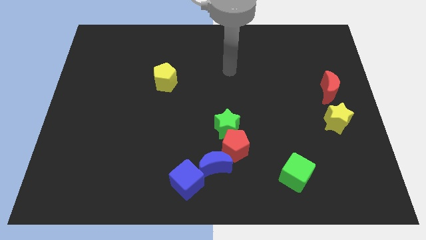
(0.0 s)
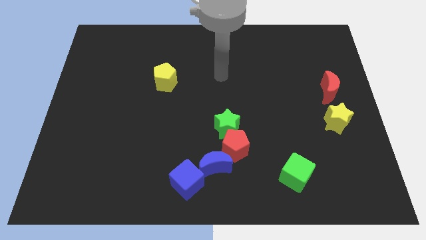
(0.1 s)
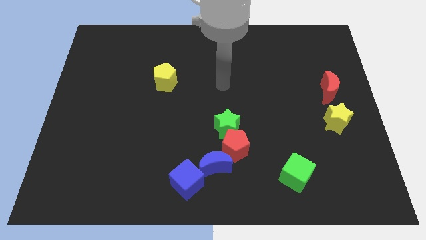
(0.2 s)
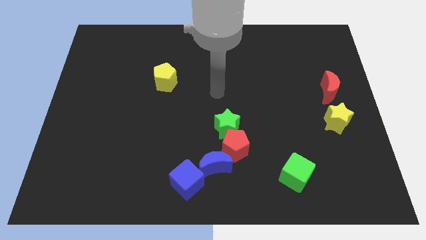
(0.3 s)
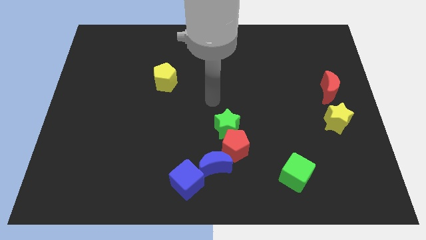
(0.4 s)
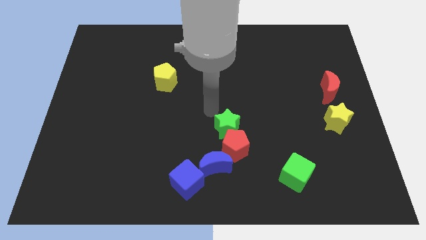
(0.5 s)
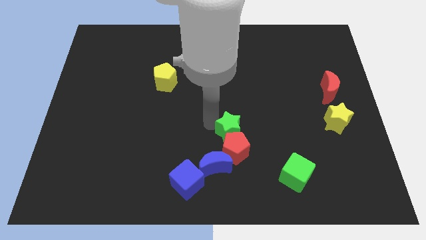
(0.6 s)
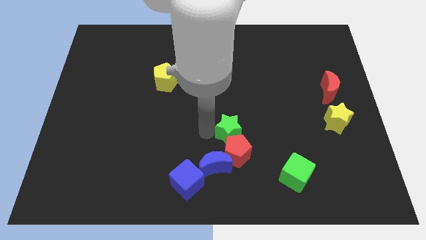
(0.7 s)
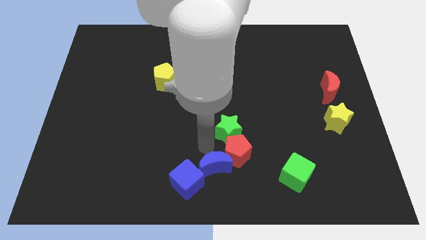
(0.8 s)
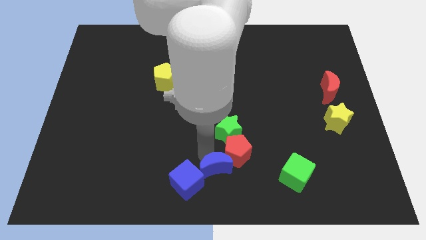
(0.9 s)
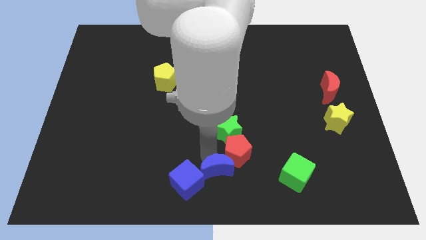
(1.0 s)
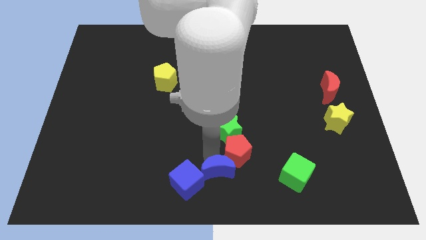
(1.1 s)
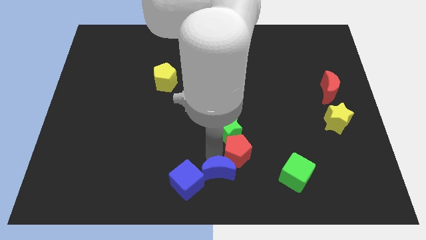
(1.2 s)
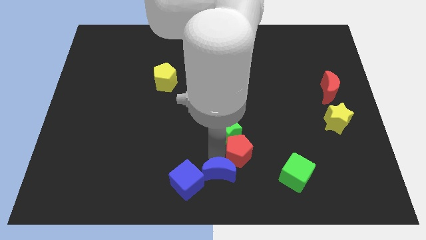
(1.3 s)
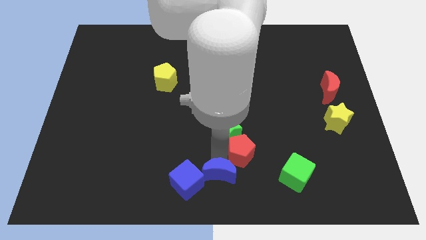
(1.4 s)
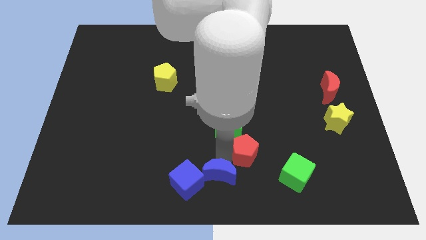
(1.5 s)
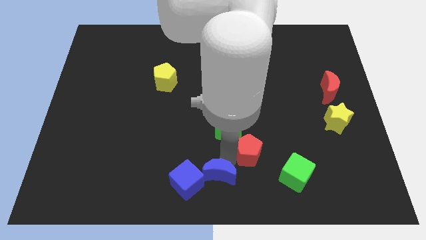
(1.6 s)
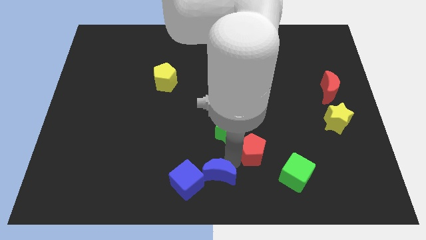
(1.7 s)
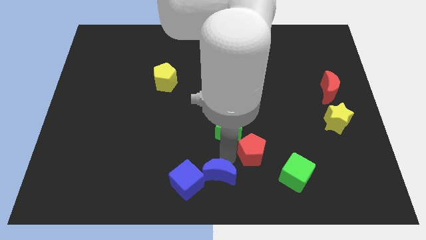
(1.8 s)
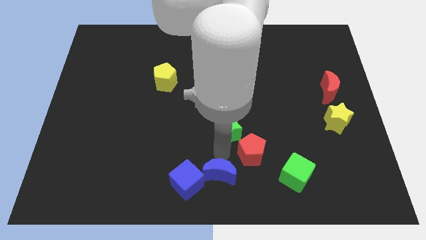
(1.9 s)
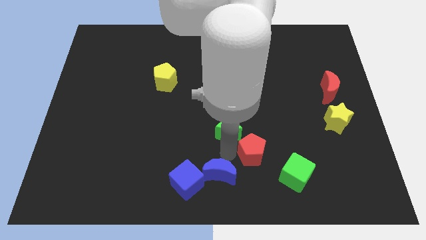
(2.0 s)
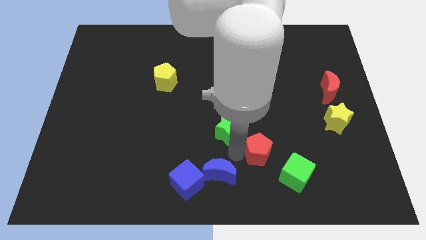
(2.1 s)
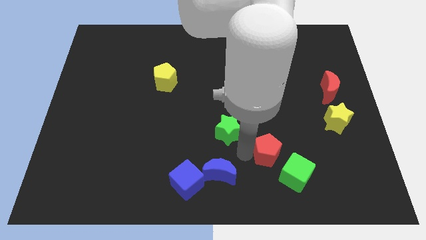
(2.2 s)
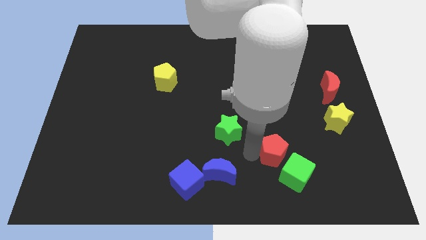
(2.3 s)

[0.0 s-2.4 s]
move the red pentagon away from the green star and blue moon

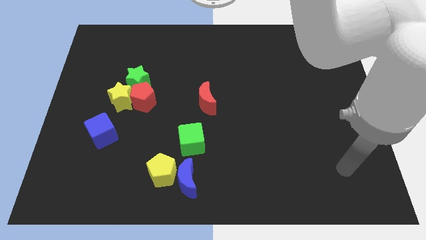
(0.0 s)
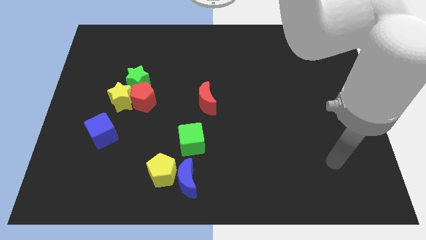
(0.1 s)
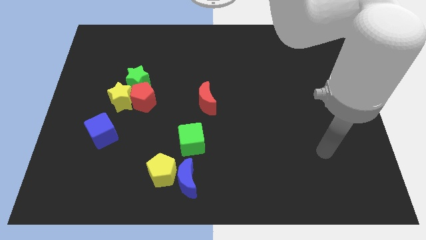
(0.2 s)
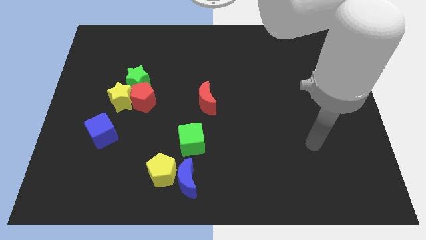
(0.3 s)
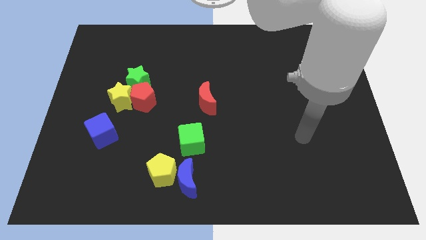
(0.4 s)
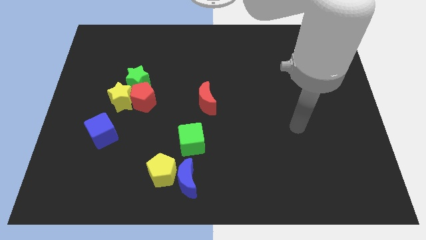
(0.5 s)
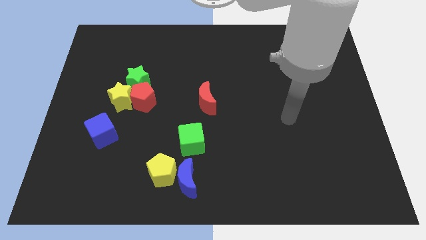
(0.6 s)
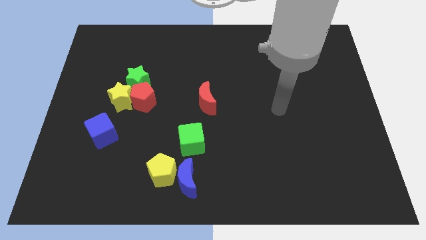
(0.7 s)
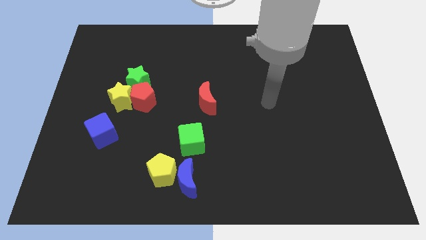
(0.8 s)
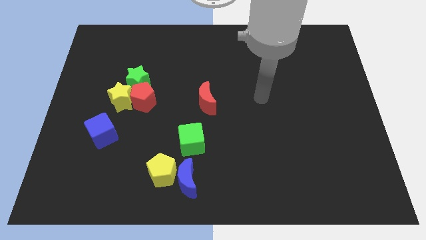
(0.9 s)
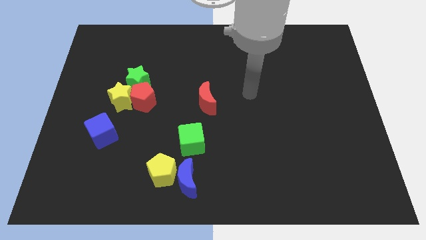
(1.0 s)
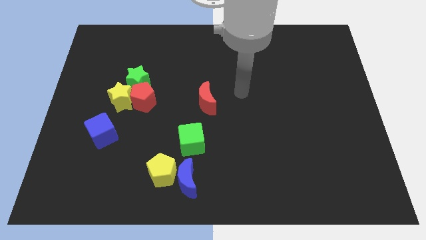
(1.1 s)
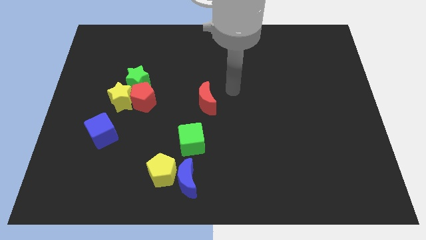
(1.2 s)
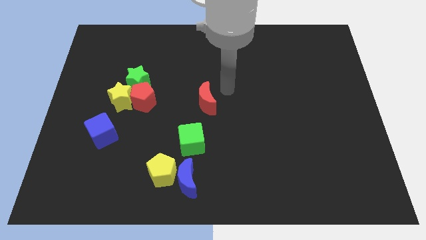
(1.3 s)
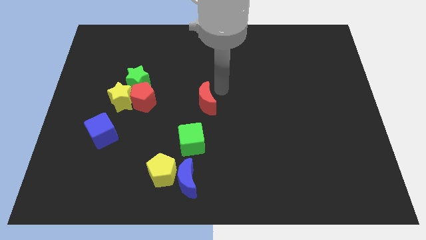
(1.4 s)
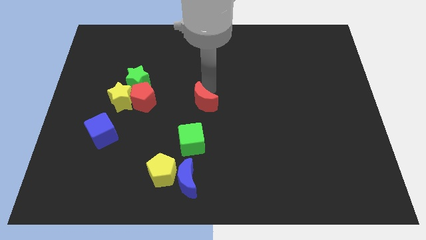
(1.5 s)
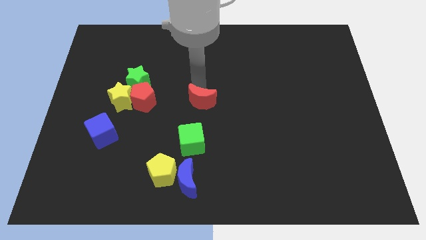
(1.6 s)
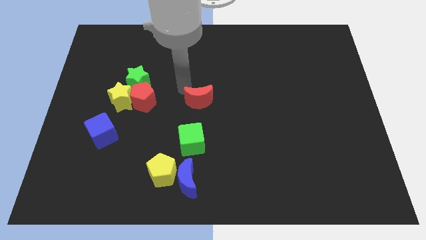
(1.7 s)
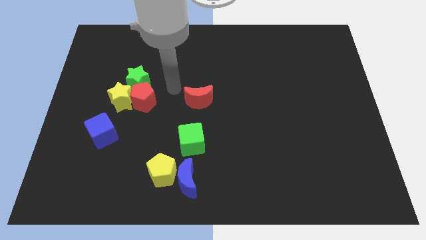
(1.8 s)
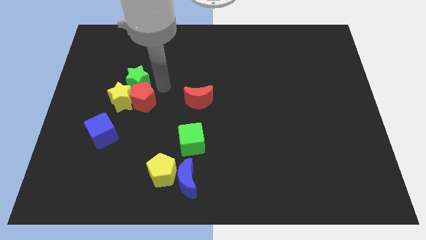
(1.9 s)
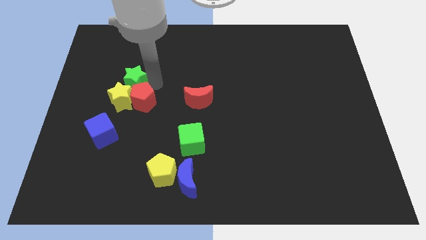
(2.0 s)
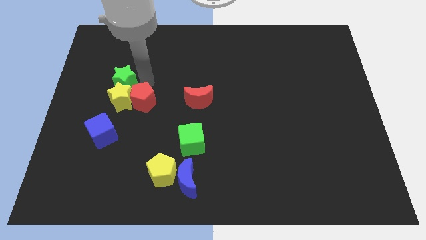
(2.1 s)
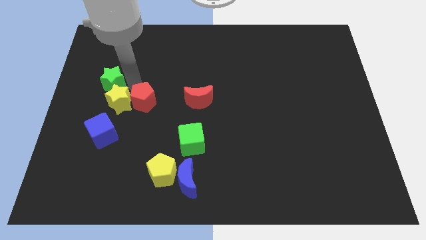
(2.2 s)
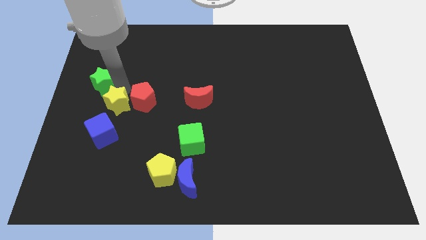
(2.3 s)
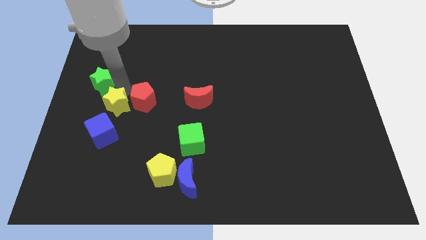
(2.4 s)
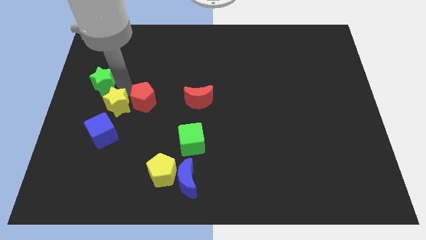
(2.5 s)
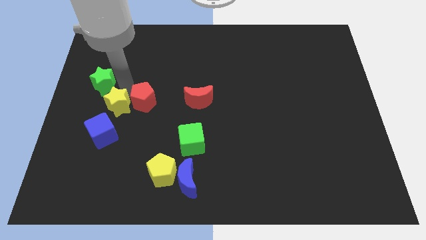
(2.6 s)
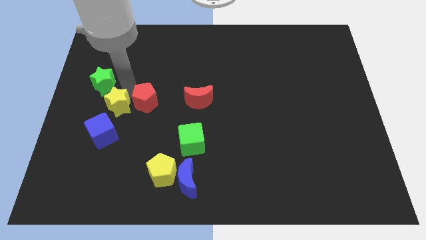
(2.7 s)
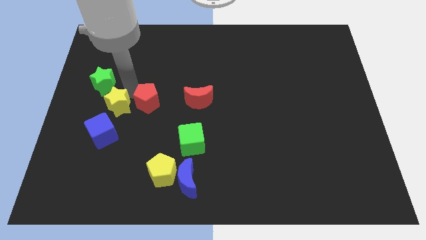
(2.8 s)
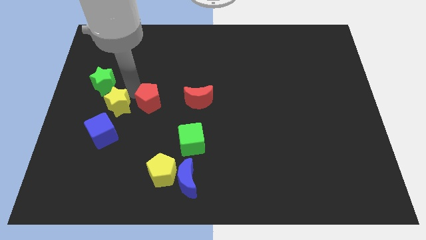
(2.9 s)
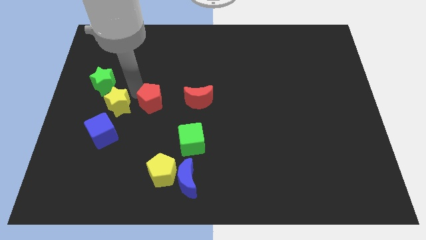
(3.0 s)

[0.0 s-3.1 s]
separate the red pentagon from the yellow star and green star

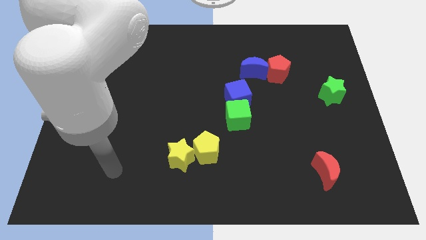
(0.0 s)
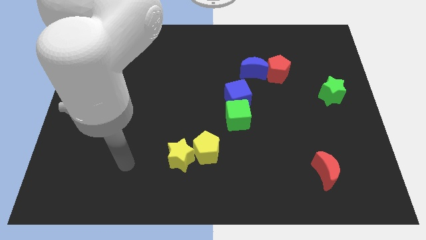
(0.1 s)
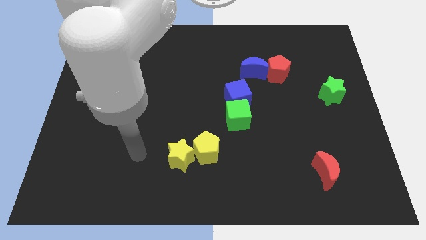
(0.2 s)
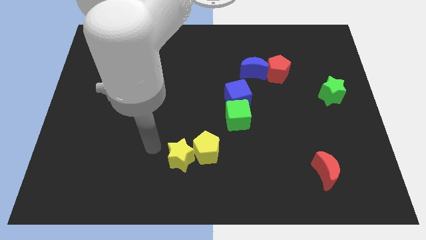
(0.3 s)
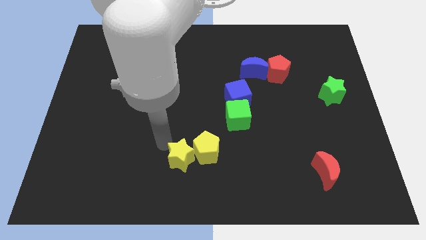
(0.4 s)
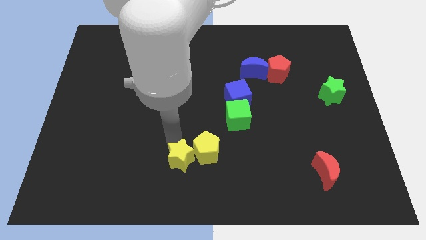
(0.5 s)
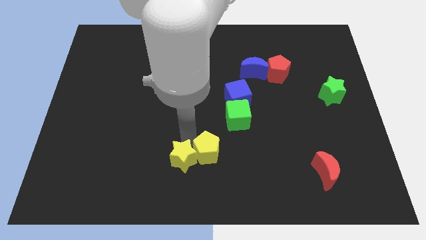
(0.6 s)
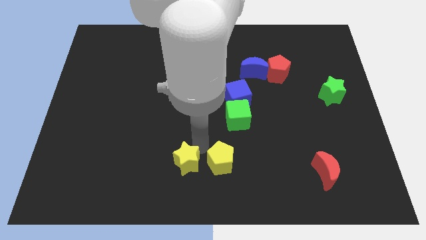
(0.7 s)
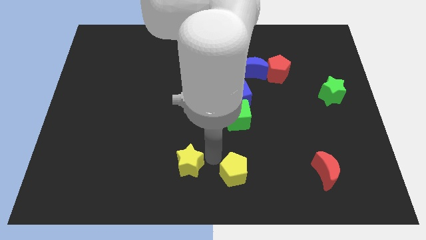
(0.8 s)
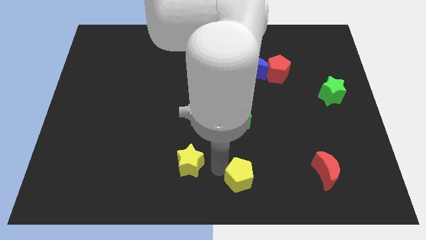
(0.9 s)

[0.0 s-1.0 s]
separate the yellow star from the yellow pentagon

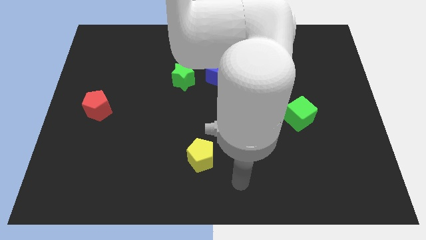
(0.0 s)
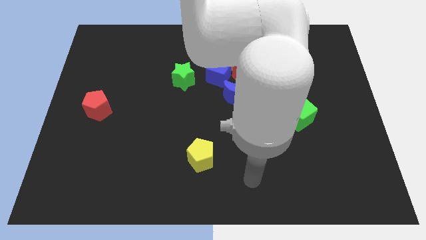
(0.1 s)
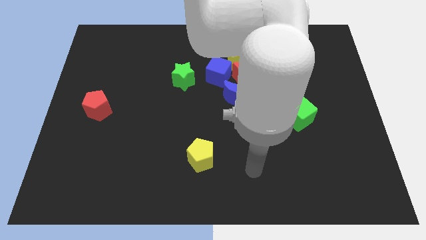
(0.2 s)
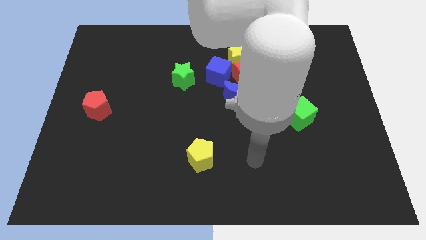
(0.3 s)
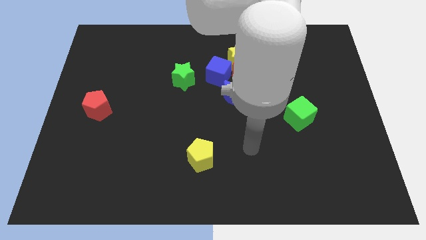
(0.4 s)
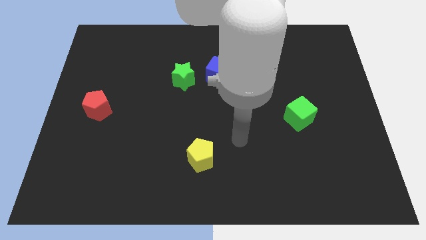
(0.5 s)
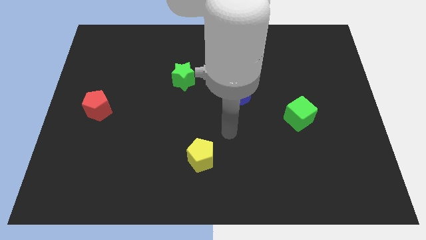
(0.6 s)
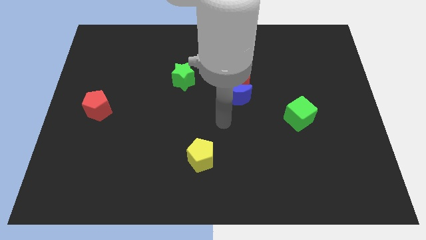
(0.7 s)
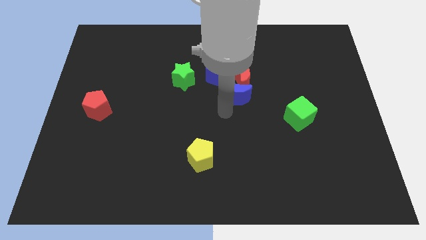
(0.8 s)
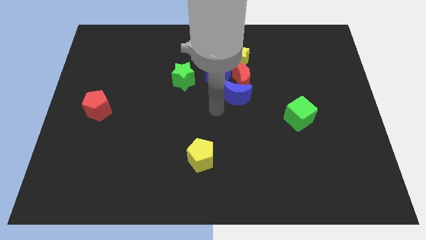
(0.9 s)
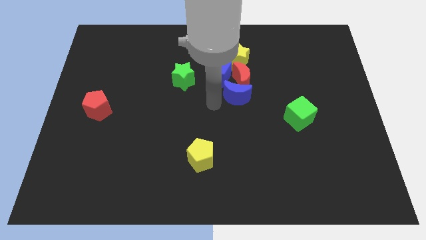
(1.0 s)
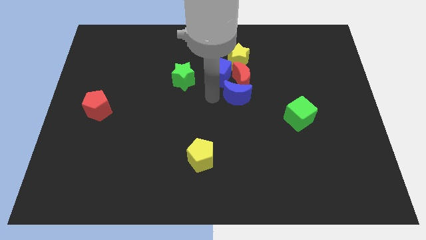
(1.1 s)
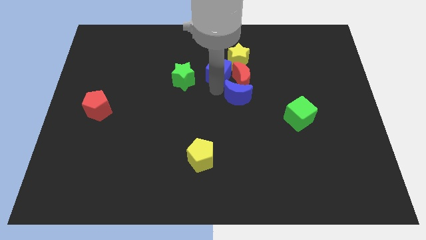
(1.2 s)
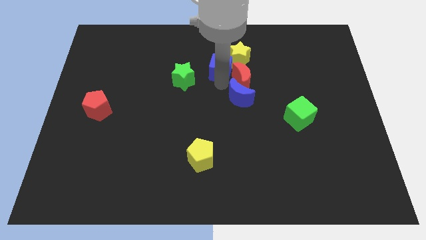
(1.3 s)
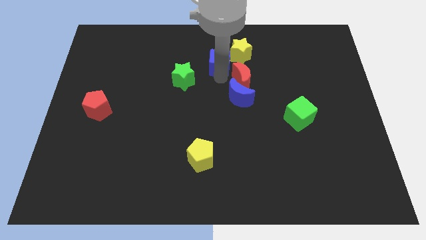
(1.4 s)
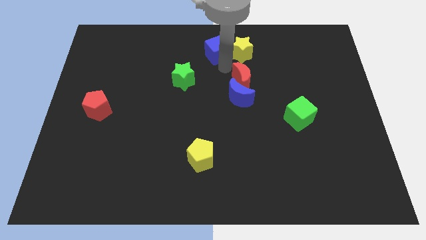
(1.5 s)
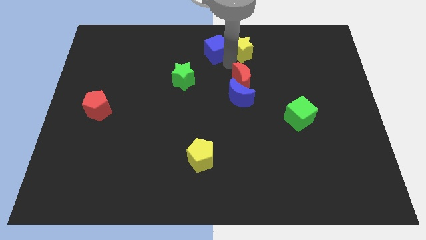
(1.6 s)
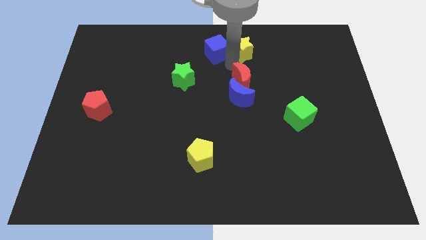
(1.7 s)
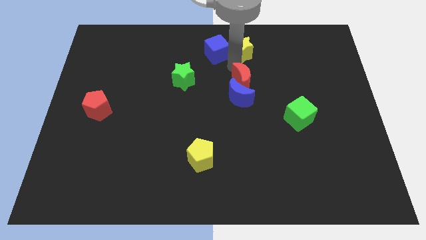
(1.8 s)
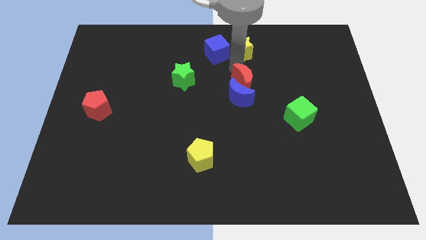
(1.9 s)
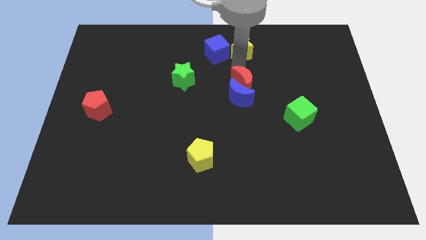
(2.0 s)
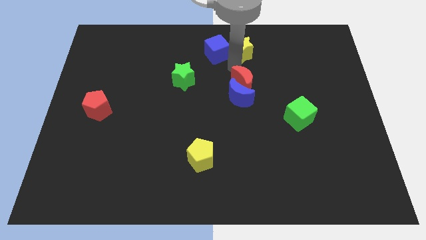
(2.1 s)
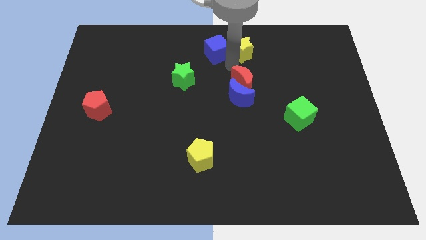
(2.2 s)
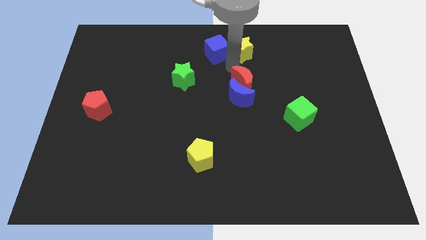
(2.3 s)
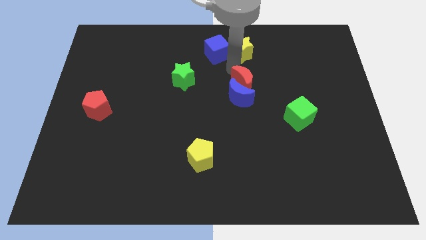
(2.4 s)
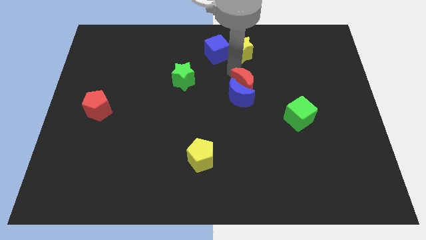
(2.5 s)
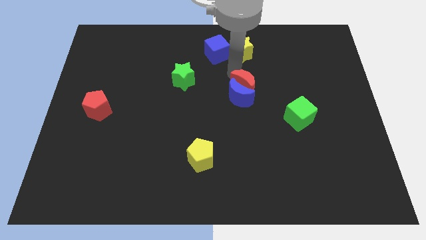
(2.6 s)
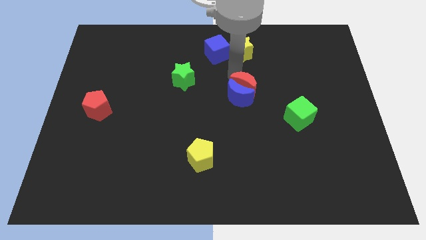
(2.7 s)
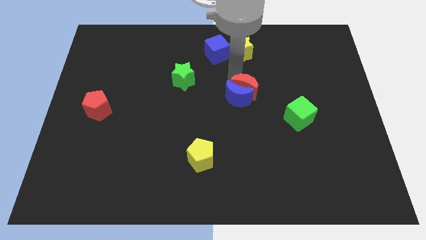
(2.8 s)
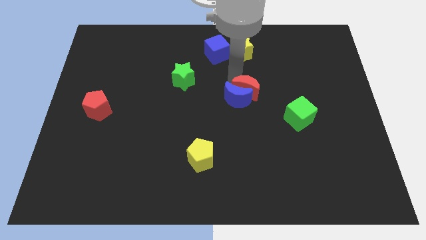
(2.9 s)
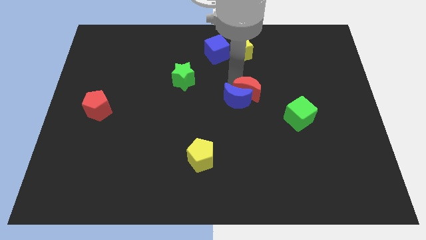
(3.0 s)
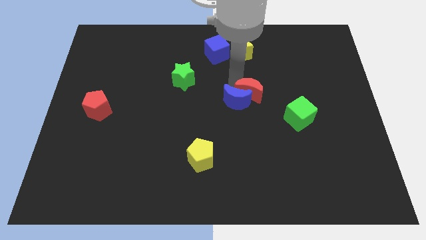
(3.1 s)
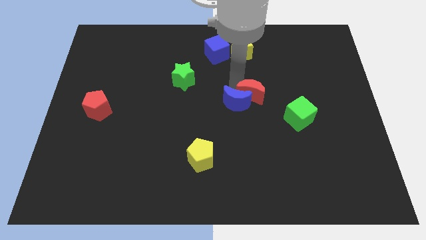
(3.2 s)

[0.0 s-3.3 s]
pull the red moon apart from the blue moon, blue cube, and yellow star
